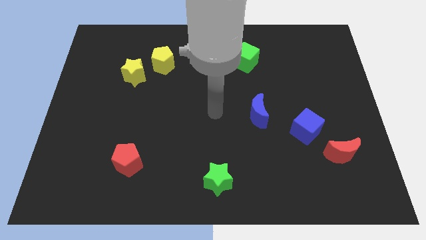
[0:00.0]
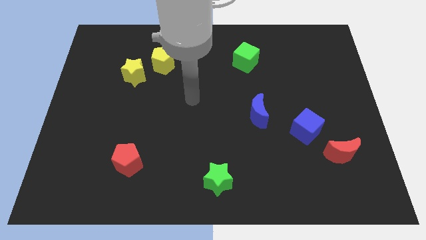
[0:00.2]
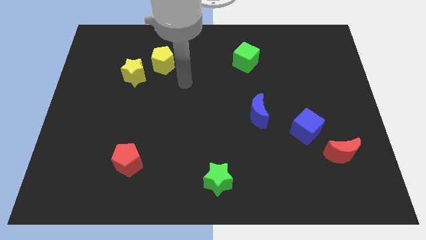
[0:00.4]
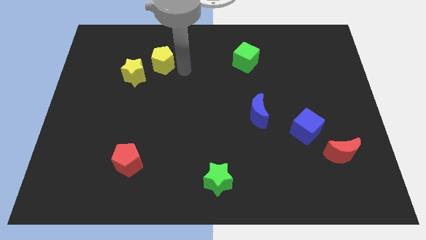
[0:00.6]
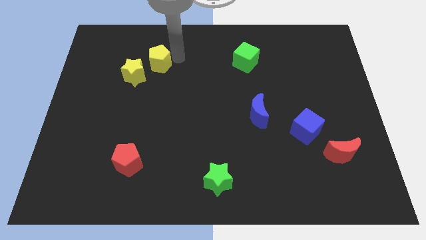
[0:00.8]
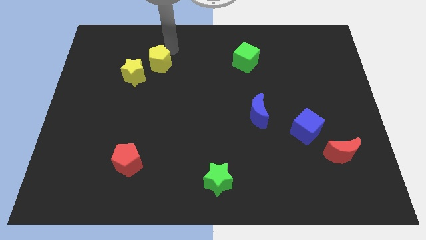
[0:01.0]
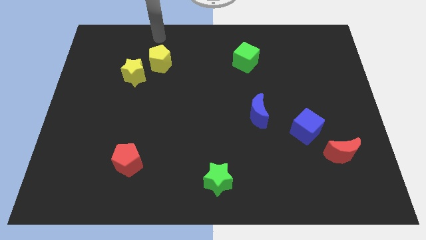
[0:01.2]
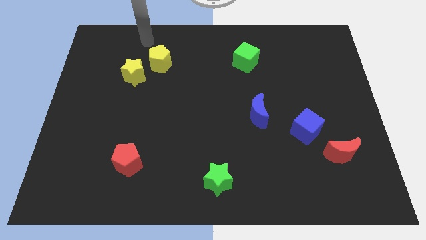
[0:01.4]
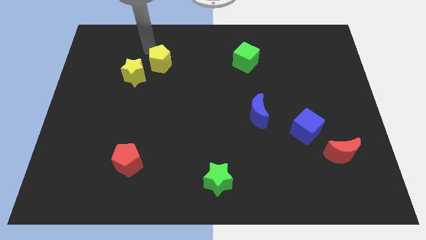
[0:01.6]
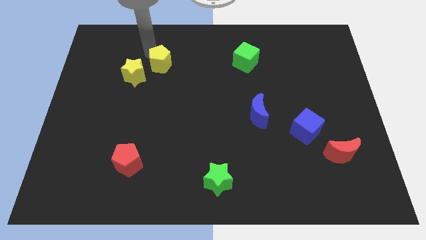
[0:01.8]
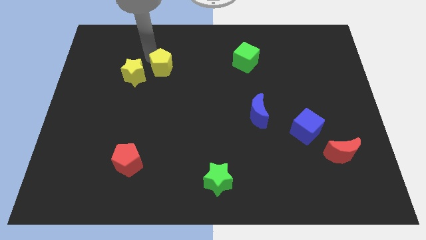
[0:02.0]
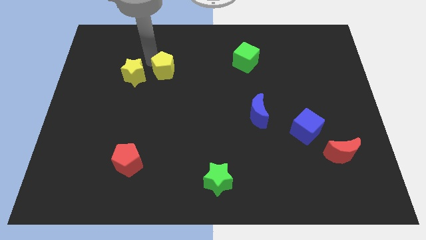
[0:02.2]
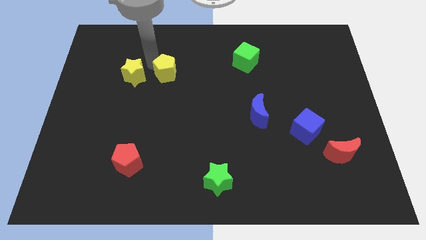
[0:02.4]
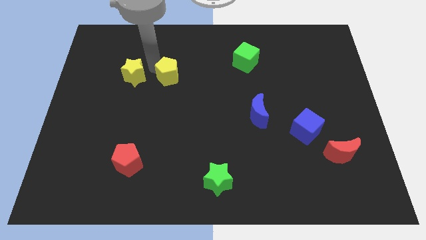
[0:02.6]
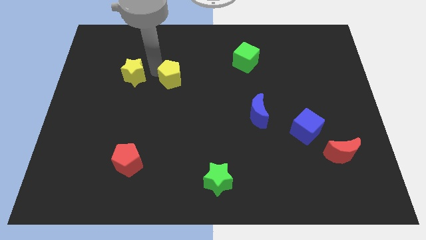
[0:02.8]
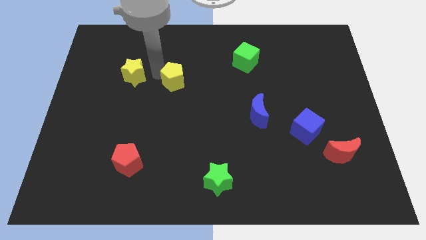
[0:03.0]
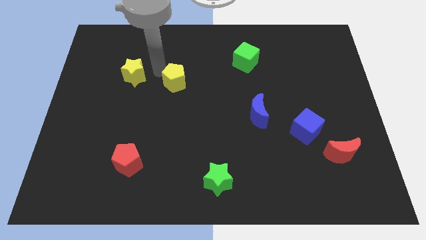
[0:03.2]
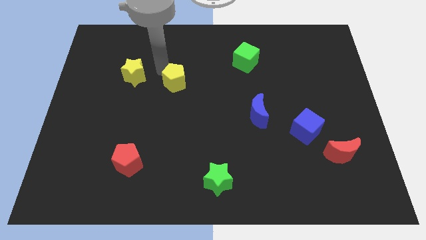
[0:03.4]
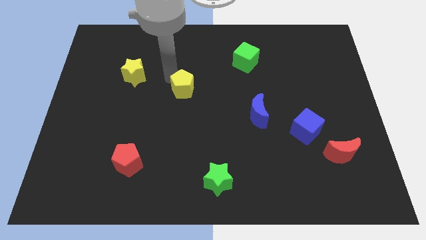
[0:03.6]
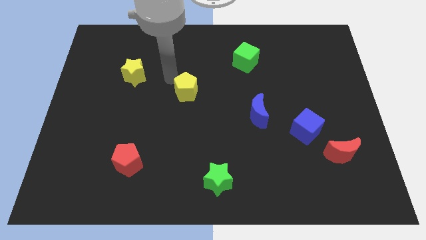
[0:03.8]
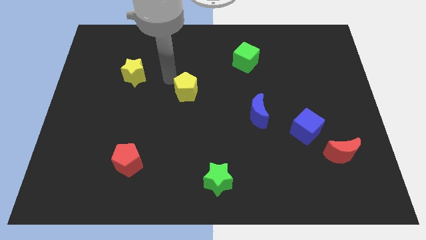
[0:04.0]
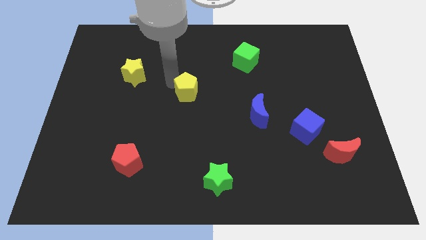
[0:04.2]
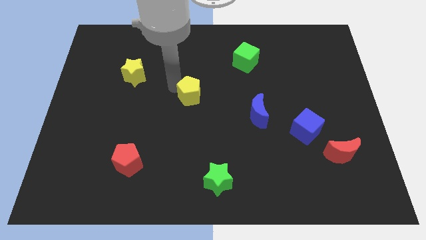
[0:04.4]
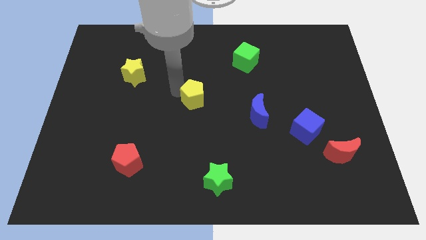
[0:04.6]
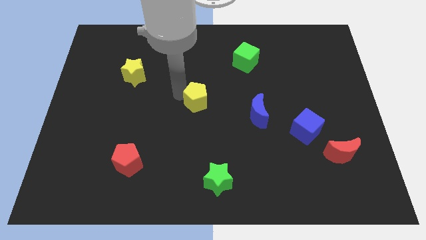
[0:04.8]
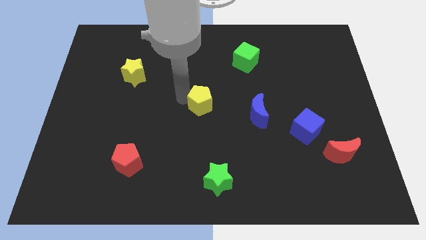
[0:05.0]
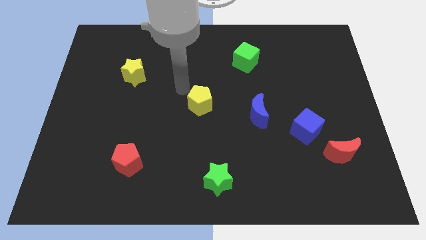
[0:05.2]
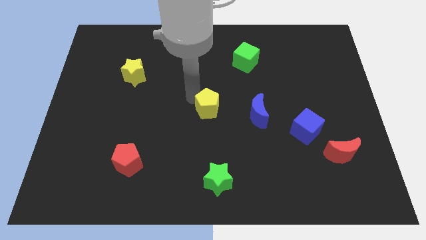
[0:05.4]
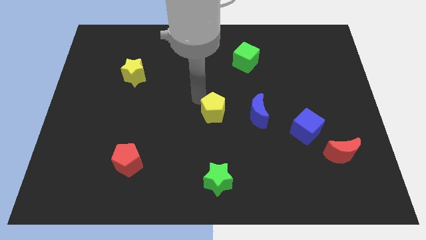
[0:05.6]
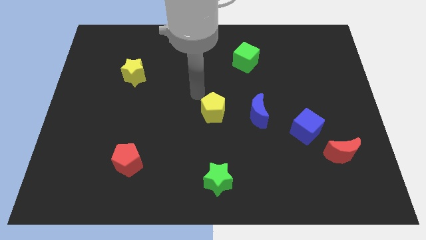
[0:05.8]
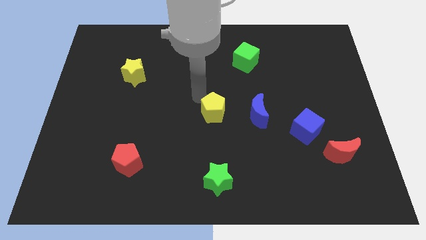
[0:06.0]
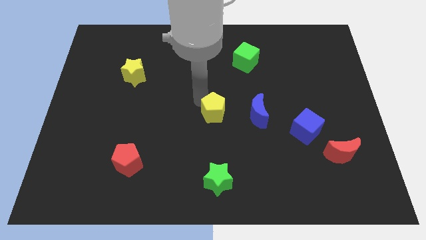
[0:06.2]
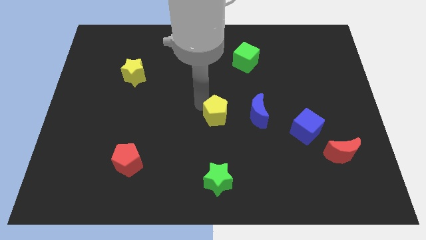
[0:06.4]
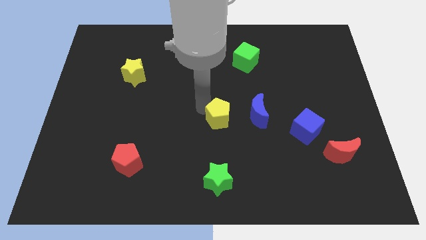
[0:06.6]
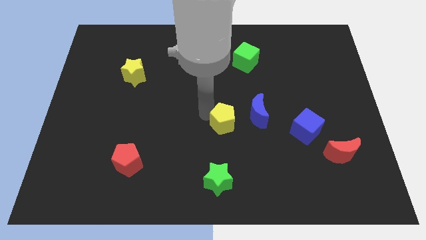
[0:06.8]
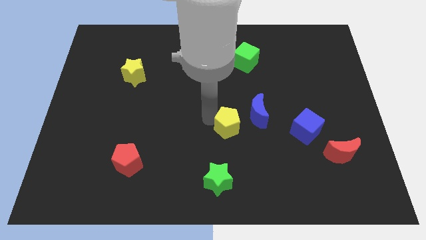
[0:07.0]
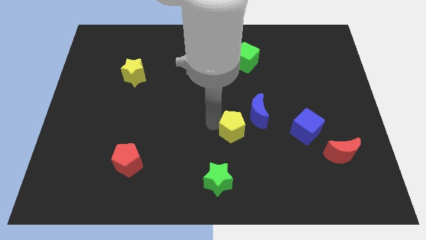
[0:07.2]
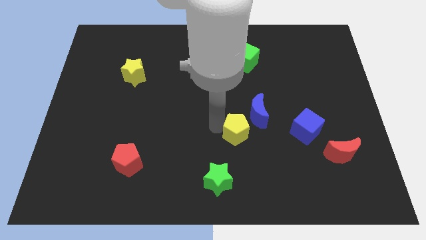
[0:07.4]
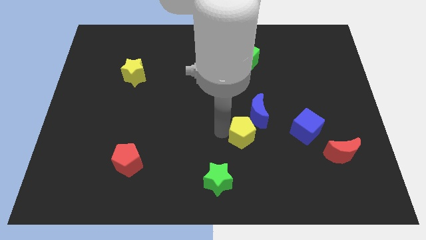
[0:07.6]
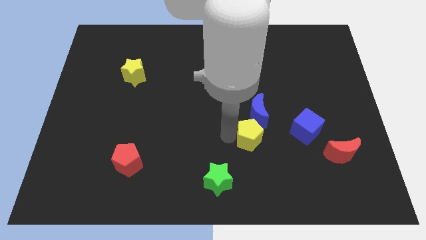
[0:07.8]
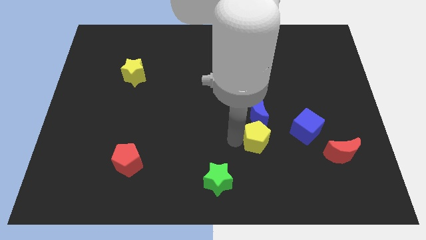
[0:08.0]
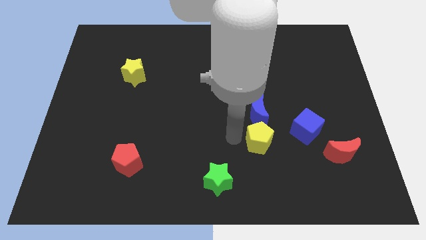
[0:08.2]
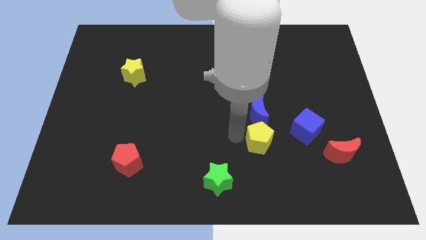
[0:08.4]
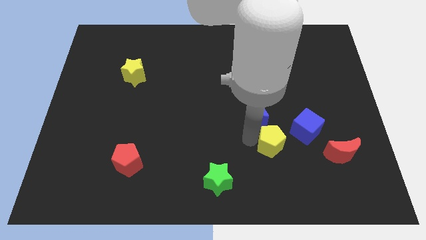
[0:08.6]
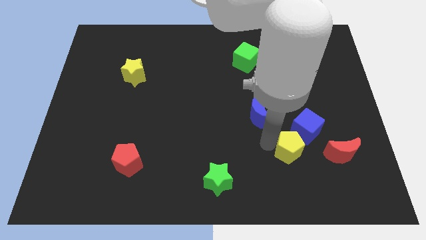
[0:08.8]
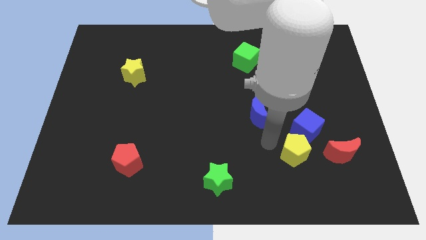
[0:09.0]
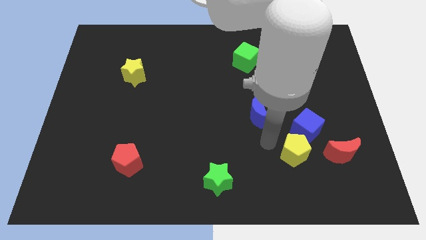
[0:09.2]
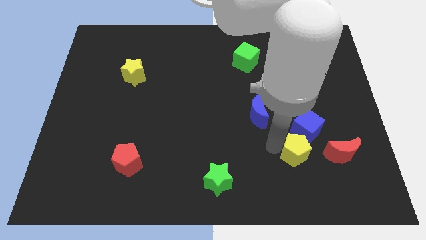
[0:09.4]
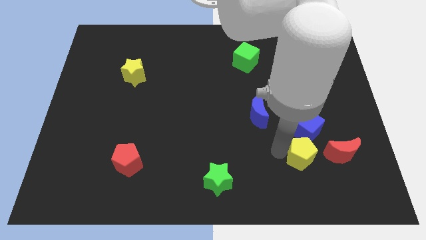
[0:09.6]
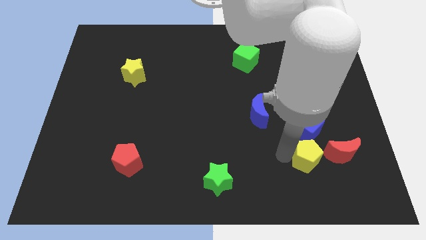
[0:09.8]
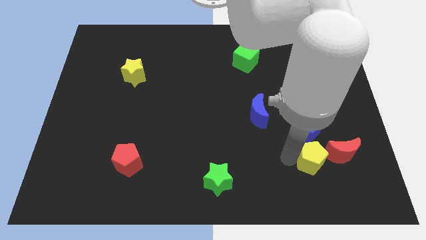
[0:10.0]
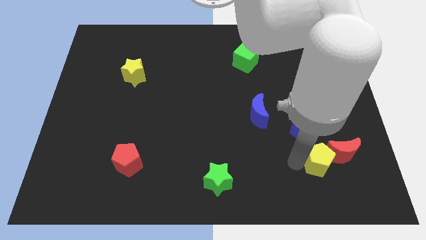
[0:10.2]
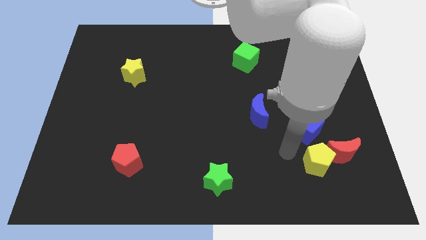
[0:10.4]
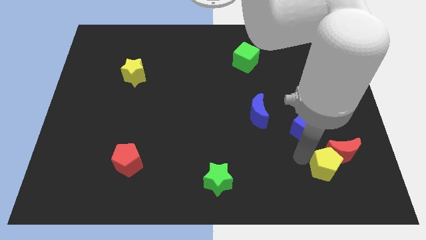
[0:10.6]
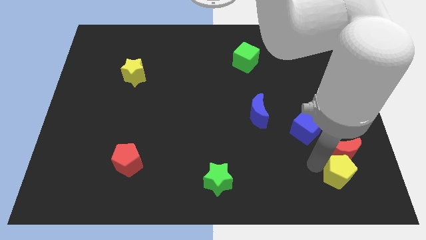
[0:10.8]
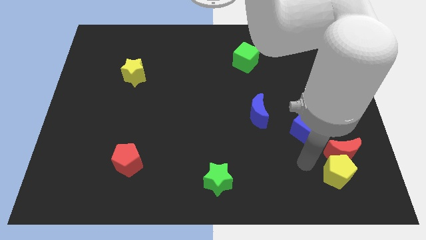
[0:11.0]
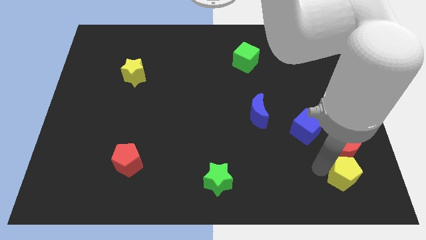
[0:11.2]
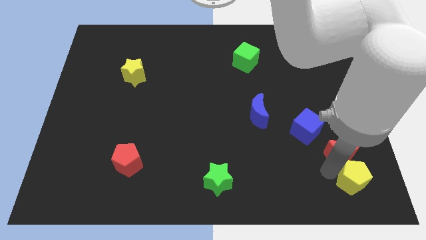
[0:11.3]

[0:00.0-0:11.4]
slide the yellow pentagon to the bottom right corner

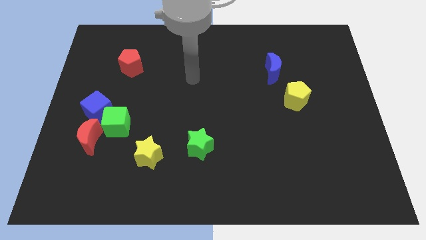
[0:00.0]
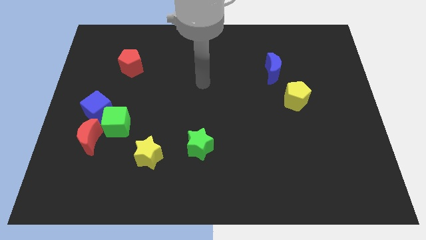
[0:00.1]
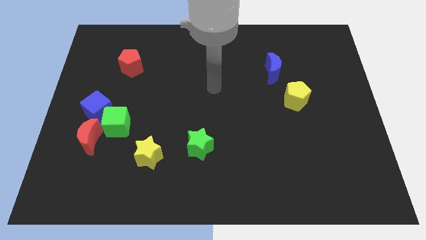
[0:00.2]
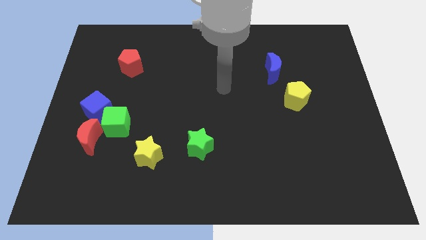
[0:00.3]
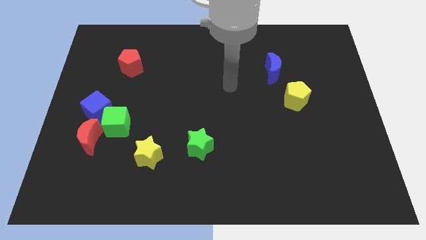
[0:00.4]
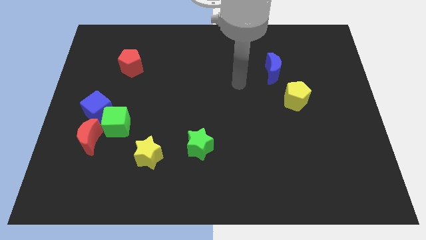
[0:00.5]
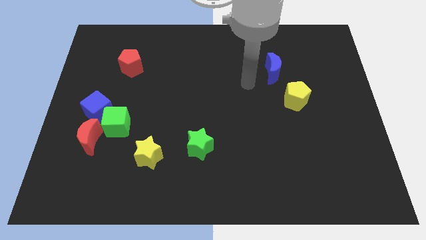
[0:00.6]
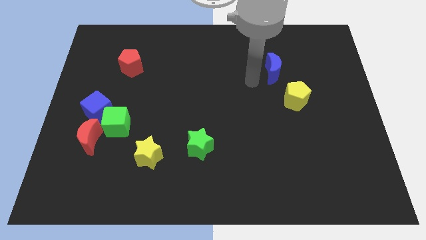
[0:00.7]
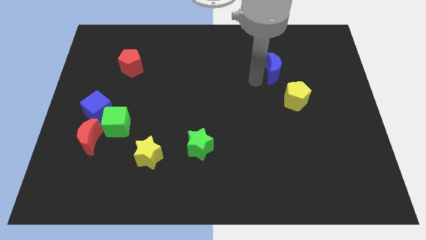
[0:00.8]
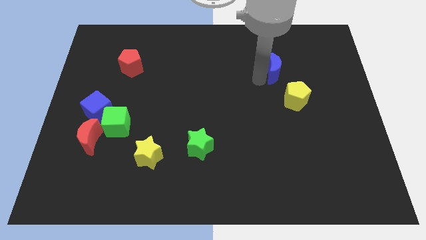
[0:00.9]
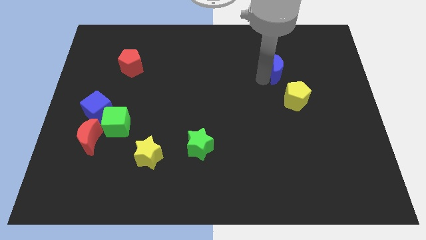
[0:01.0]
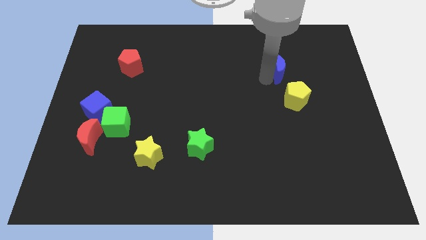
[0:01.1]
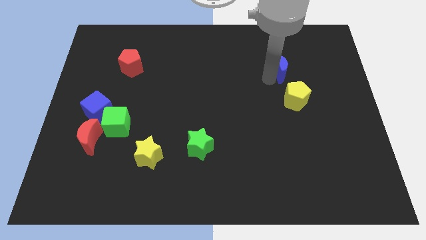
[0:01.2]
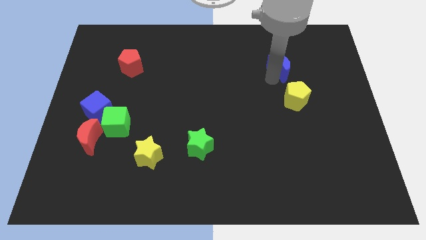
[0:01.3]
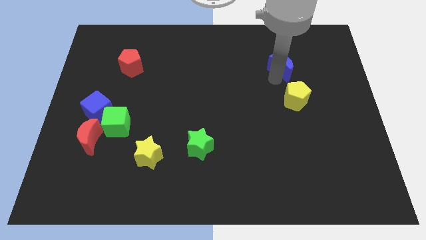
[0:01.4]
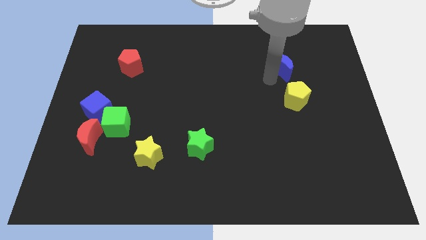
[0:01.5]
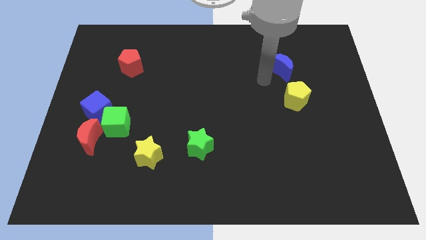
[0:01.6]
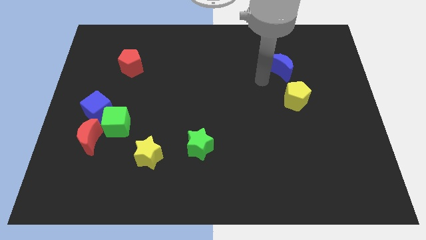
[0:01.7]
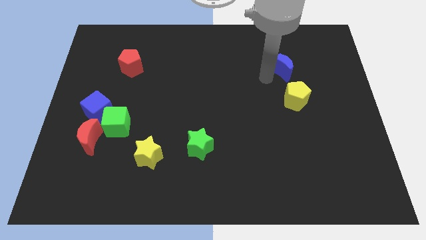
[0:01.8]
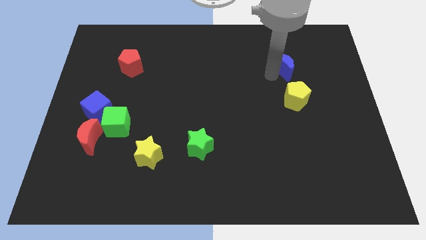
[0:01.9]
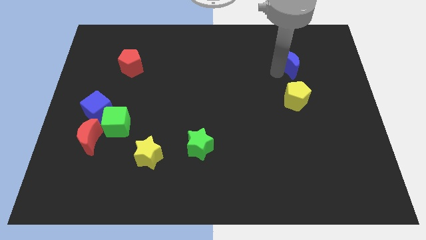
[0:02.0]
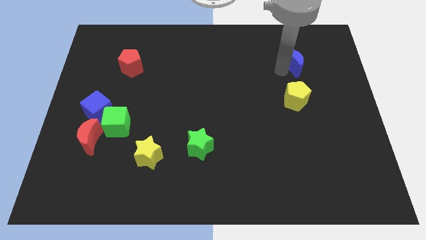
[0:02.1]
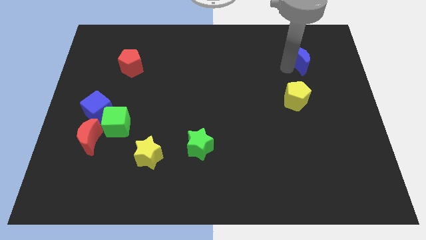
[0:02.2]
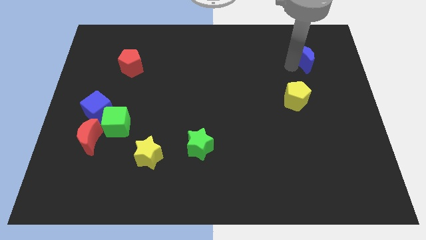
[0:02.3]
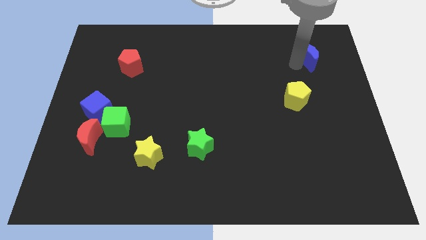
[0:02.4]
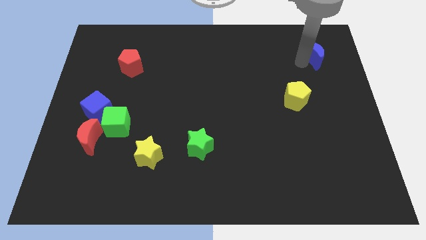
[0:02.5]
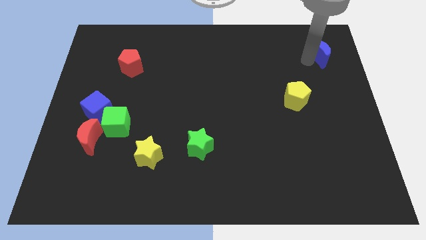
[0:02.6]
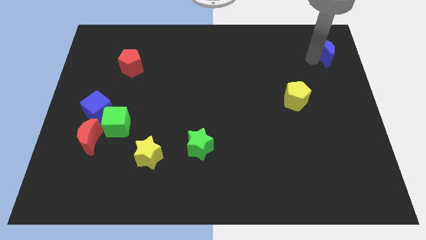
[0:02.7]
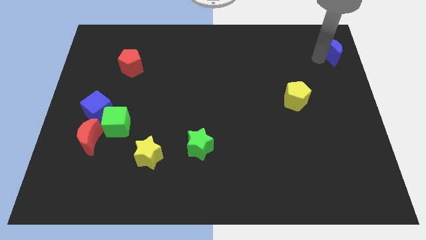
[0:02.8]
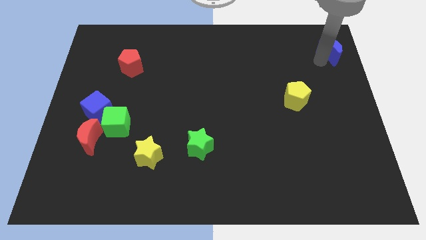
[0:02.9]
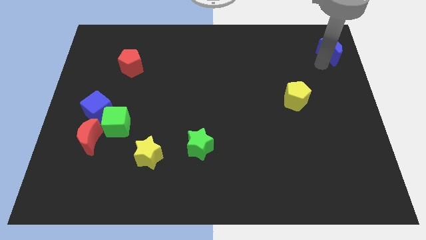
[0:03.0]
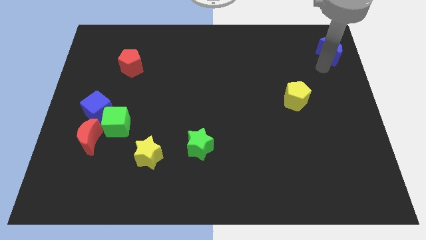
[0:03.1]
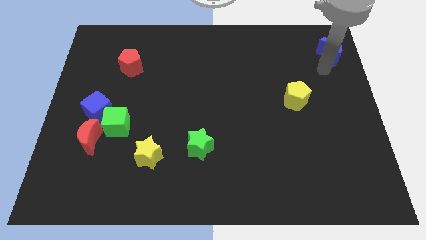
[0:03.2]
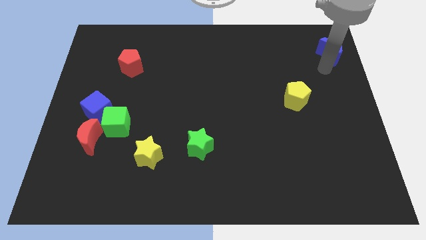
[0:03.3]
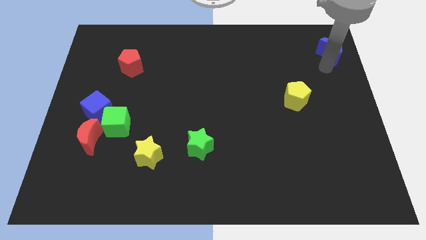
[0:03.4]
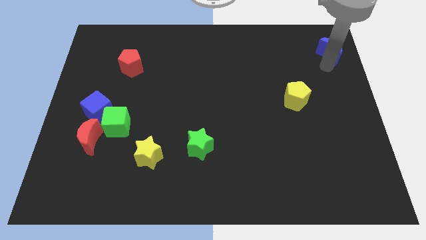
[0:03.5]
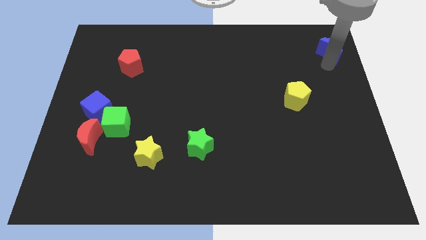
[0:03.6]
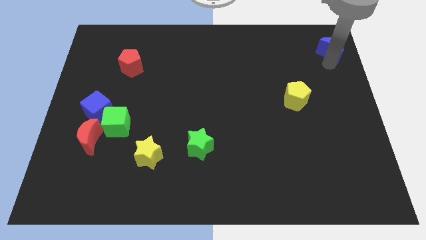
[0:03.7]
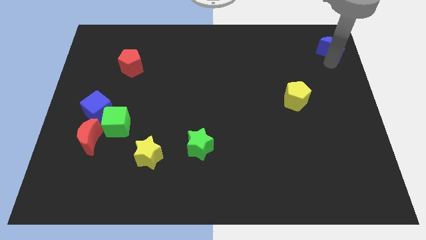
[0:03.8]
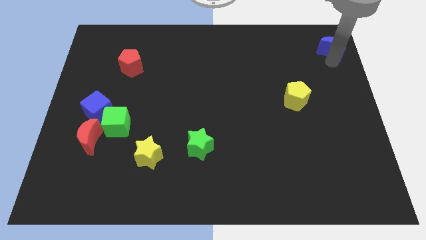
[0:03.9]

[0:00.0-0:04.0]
slide the blue moon to the top right of the board
